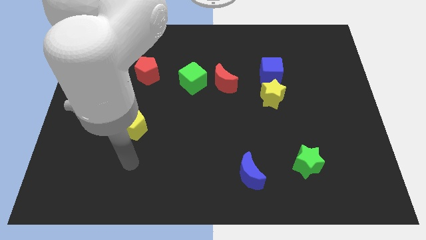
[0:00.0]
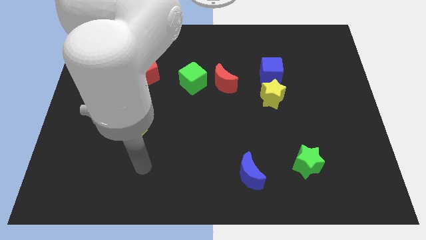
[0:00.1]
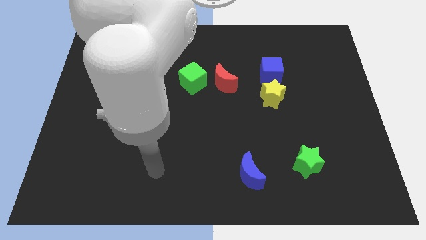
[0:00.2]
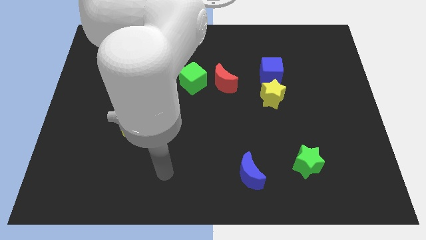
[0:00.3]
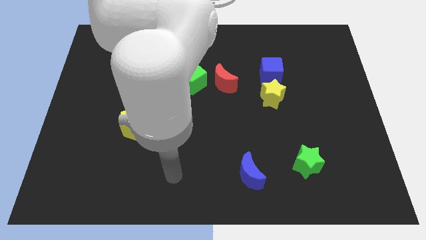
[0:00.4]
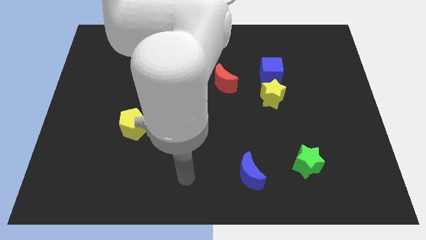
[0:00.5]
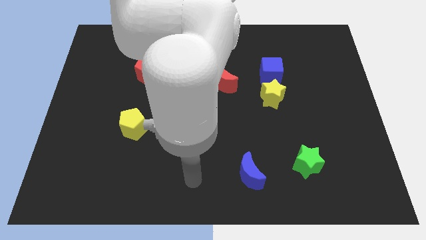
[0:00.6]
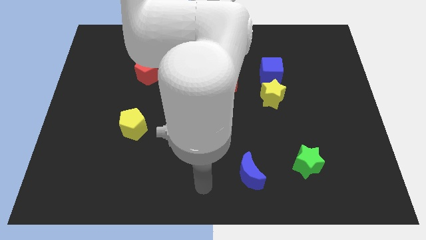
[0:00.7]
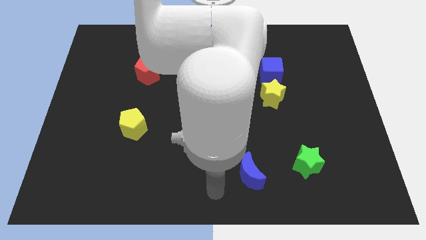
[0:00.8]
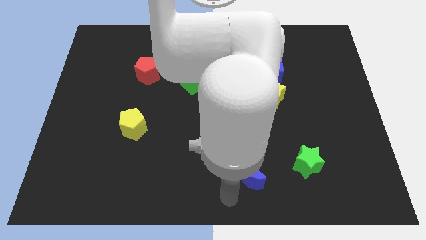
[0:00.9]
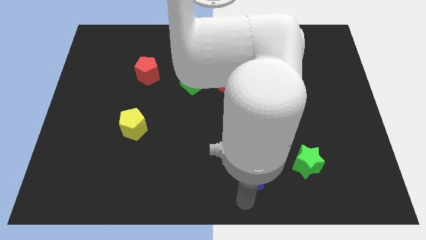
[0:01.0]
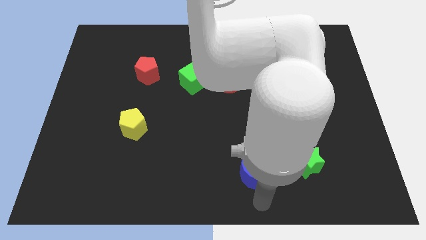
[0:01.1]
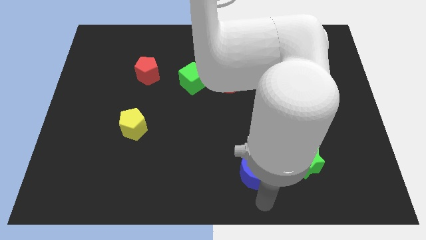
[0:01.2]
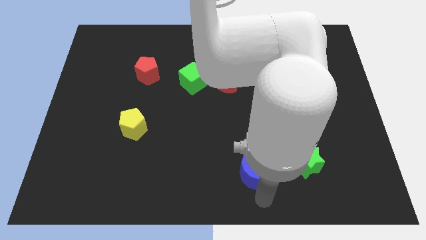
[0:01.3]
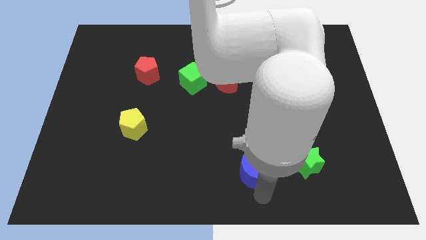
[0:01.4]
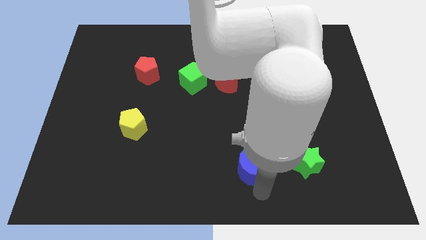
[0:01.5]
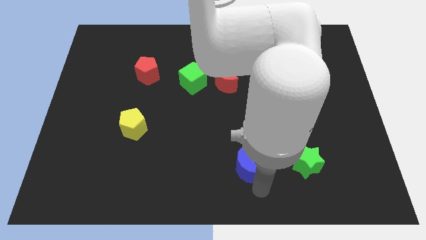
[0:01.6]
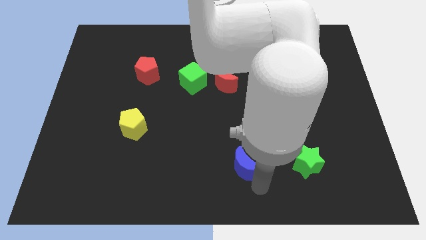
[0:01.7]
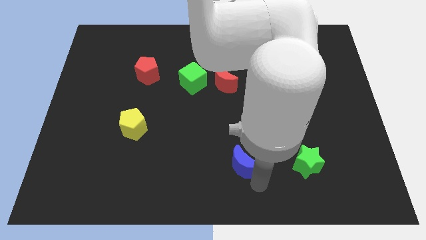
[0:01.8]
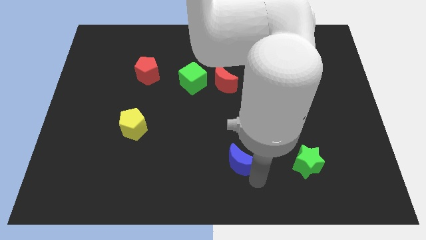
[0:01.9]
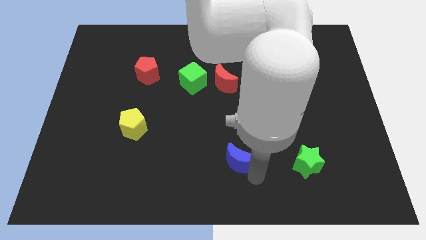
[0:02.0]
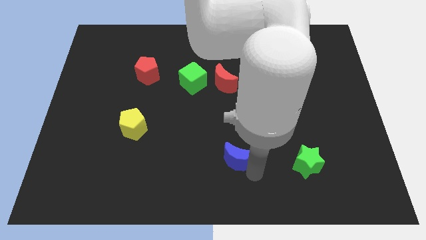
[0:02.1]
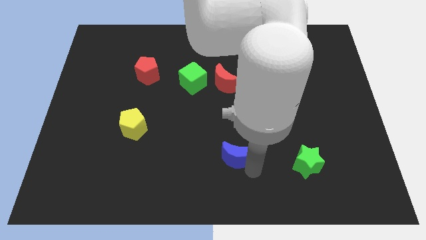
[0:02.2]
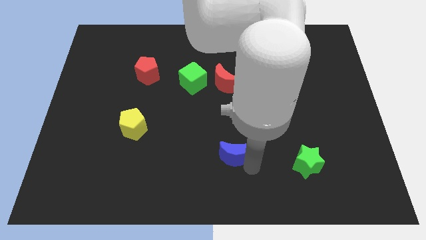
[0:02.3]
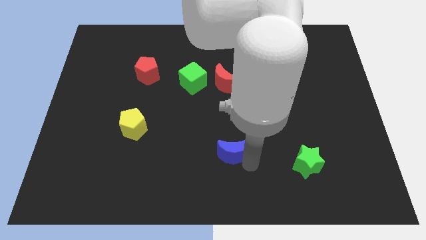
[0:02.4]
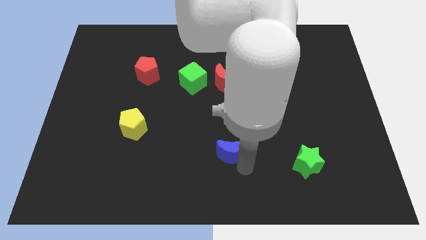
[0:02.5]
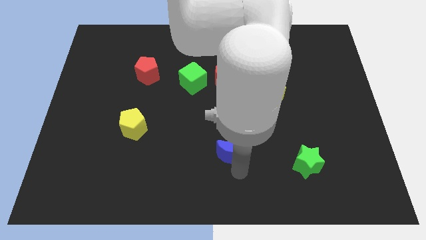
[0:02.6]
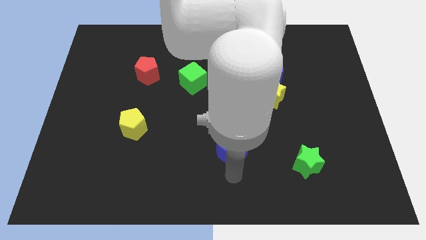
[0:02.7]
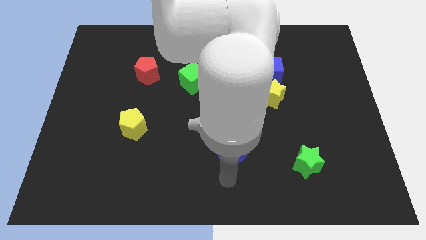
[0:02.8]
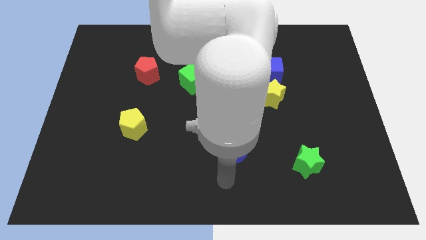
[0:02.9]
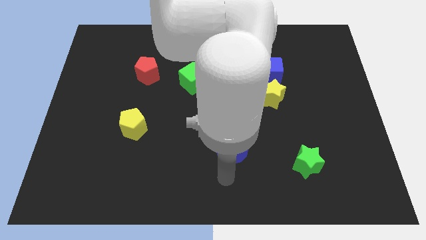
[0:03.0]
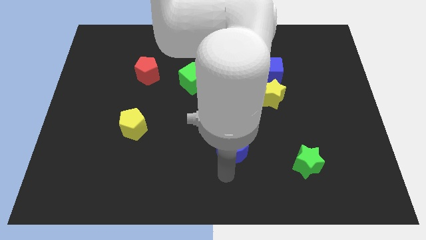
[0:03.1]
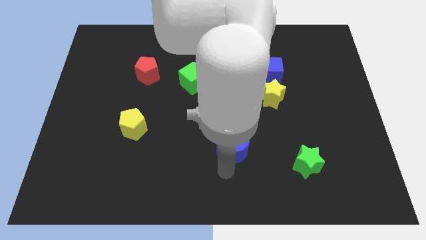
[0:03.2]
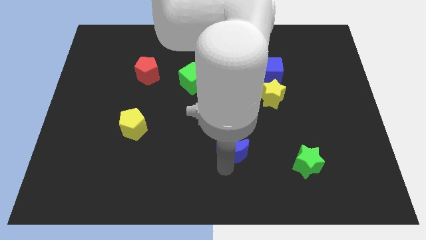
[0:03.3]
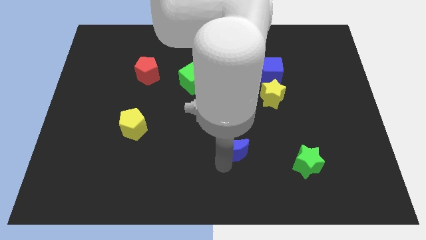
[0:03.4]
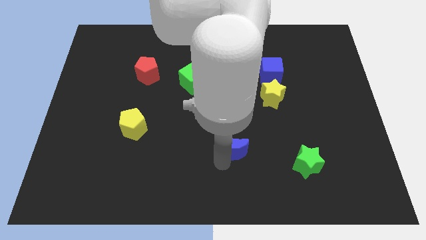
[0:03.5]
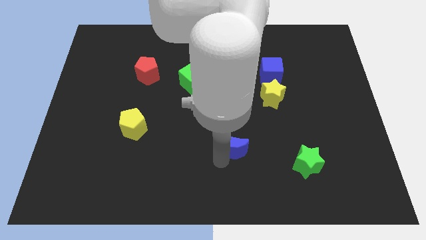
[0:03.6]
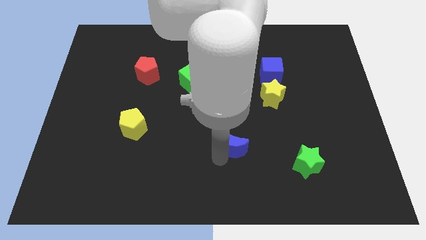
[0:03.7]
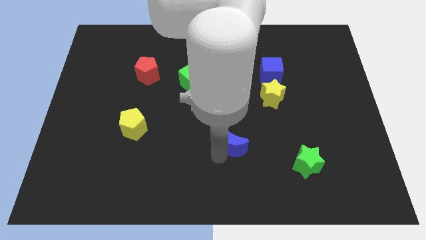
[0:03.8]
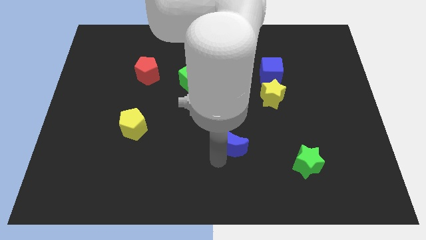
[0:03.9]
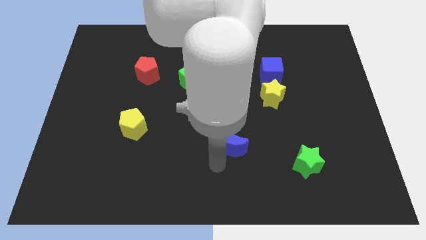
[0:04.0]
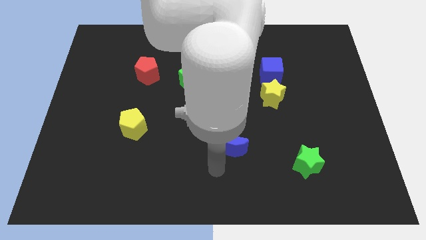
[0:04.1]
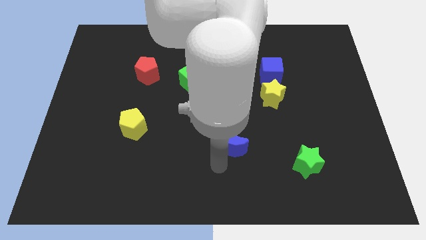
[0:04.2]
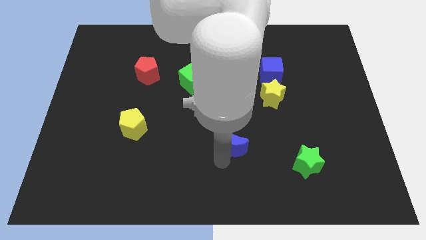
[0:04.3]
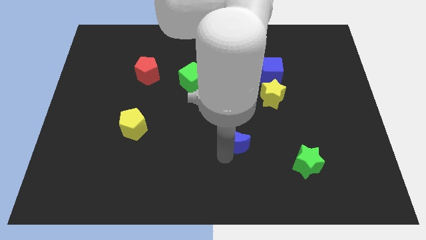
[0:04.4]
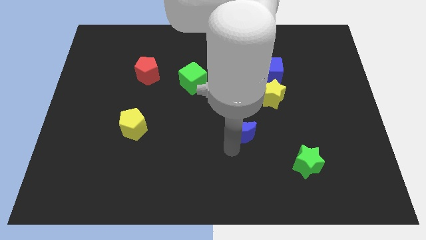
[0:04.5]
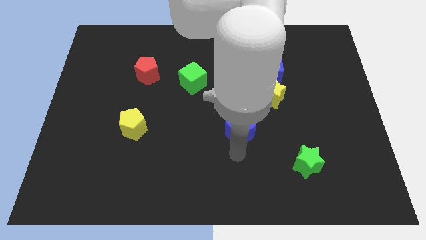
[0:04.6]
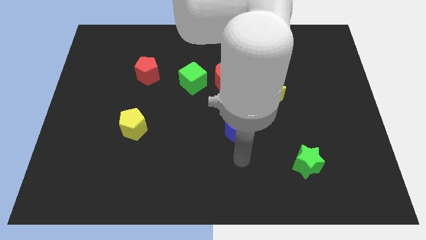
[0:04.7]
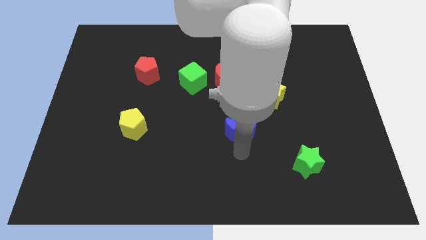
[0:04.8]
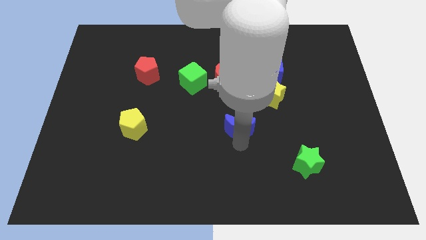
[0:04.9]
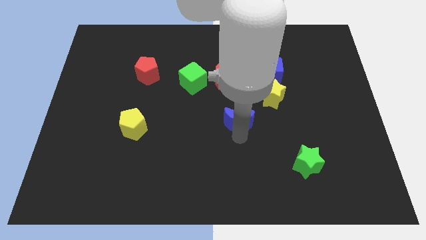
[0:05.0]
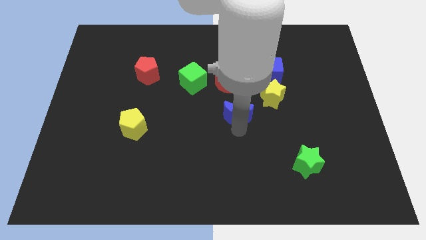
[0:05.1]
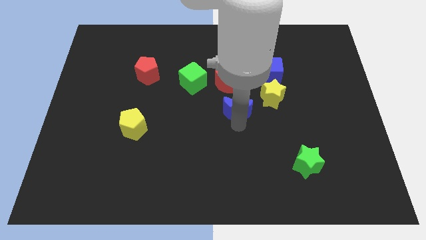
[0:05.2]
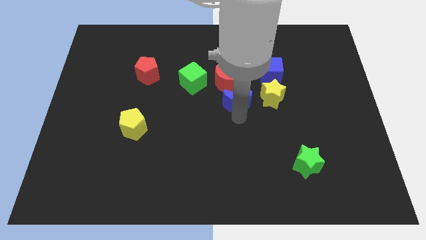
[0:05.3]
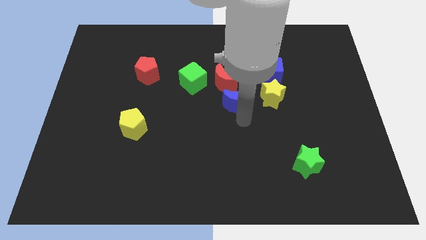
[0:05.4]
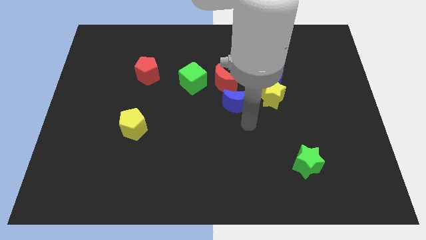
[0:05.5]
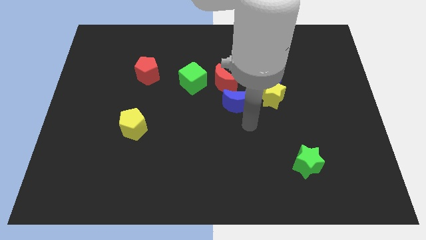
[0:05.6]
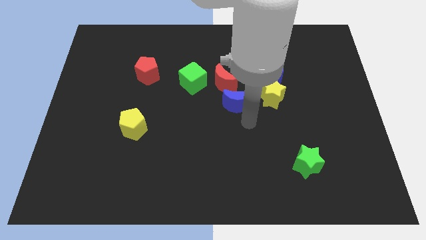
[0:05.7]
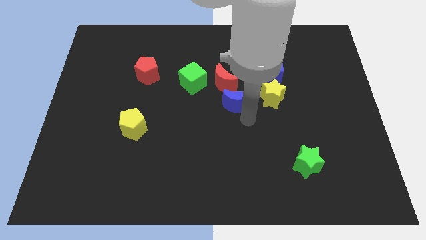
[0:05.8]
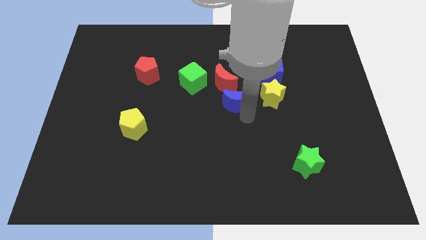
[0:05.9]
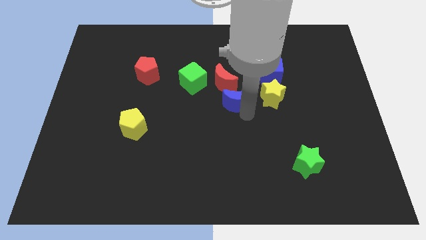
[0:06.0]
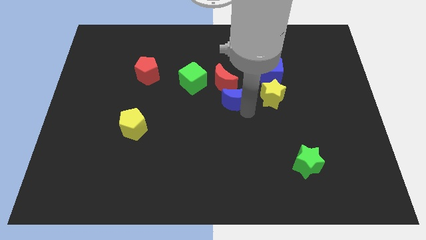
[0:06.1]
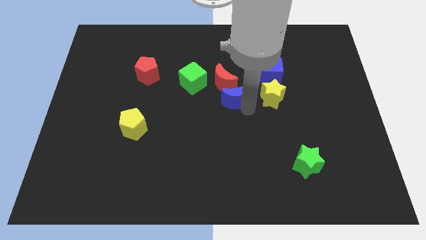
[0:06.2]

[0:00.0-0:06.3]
slide the blue moon towards the red moon

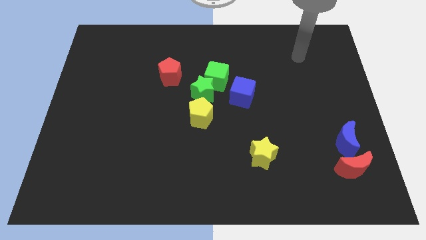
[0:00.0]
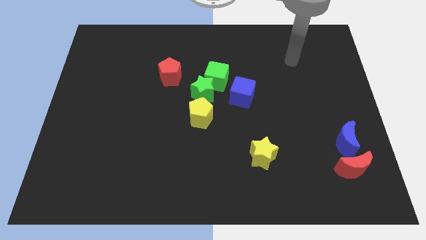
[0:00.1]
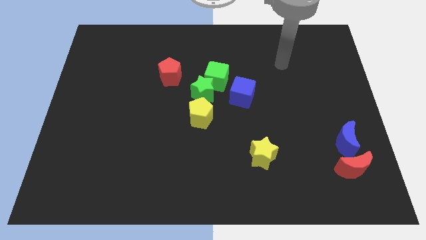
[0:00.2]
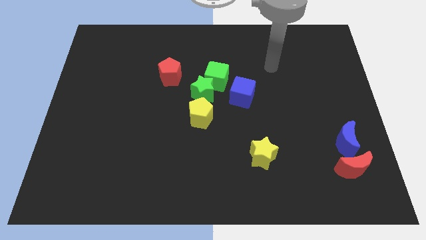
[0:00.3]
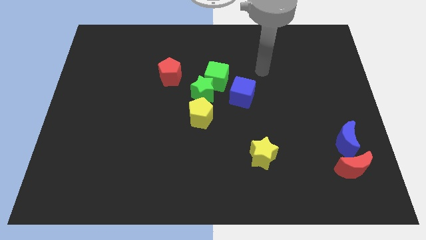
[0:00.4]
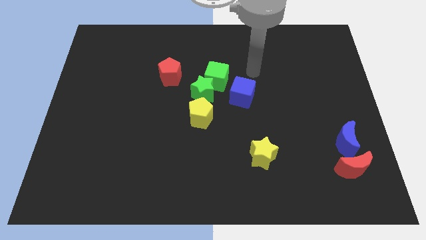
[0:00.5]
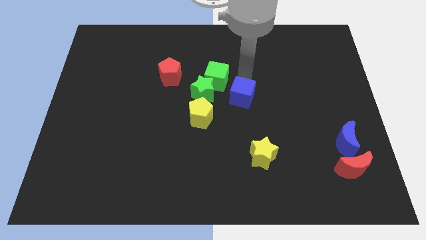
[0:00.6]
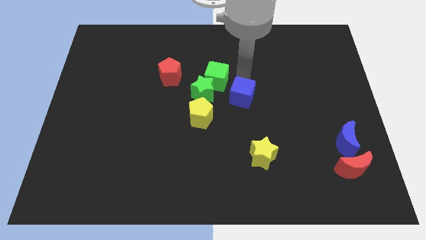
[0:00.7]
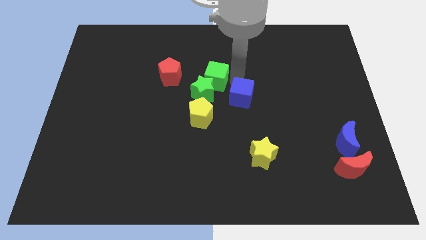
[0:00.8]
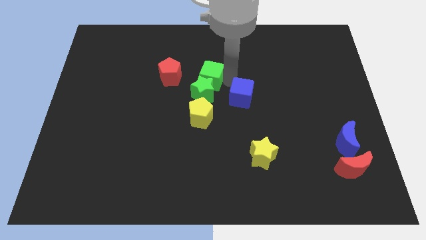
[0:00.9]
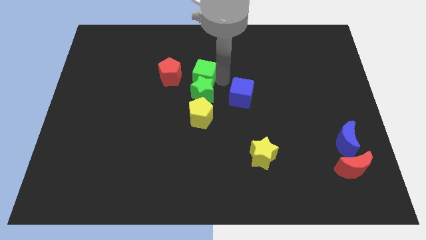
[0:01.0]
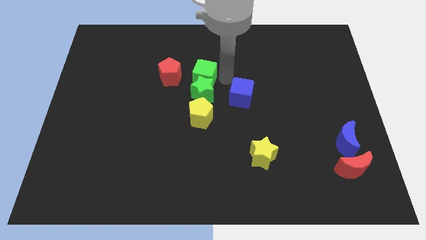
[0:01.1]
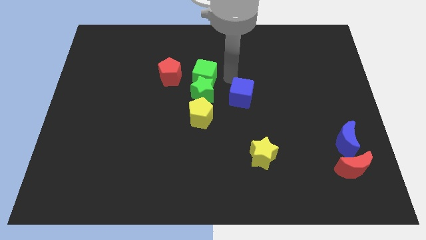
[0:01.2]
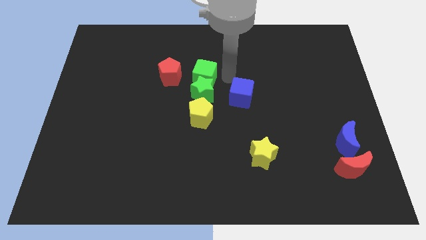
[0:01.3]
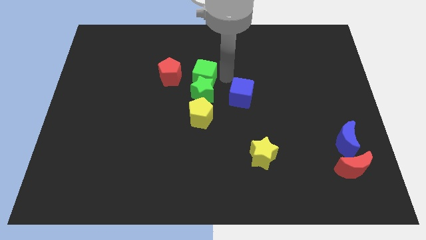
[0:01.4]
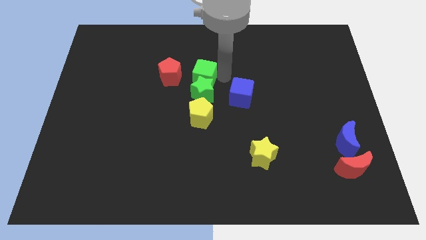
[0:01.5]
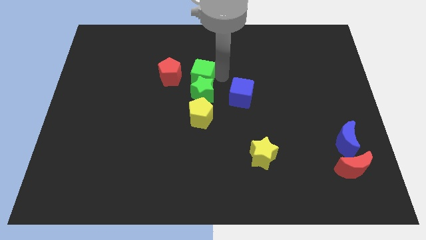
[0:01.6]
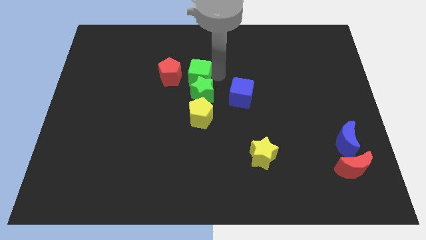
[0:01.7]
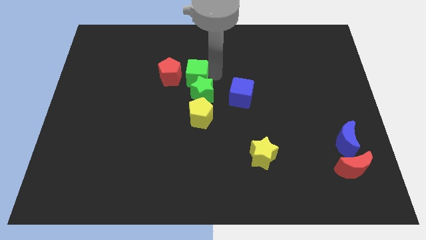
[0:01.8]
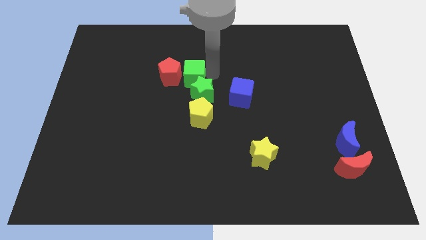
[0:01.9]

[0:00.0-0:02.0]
move the green cube next to the red pentagon
